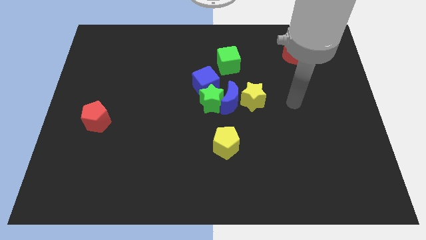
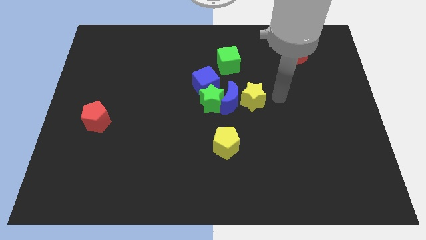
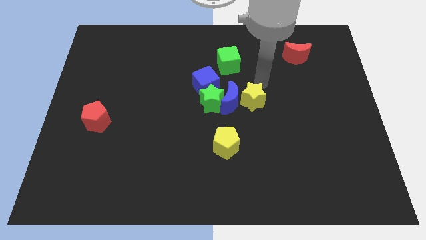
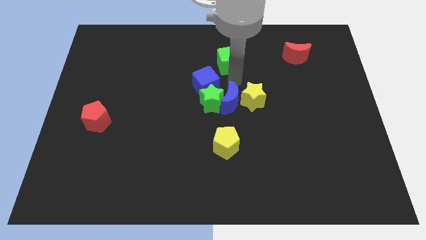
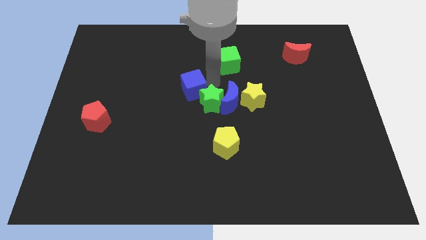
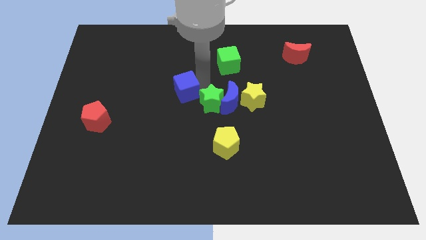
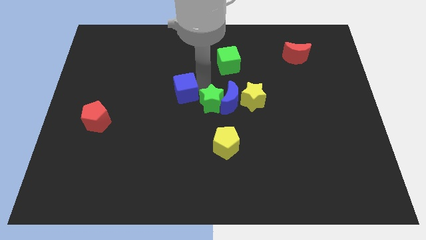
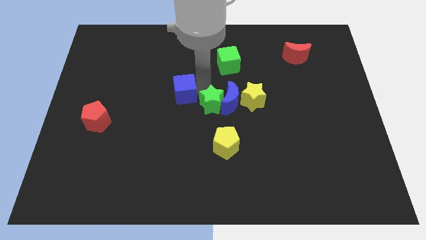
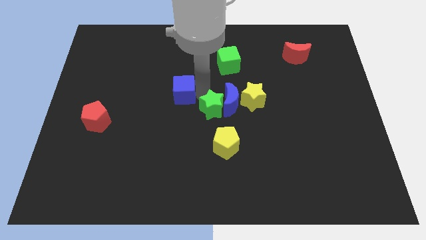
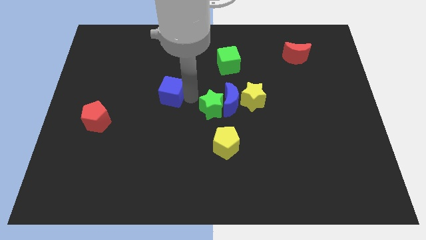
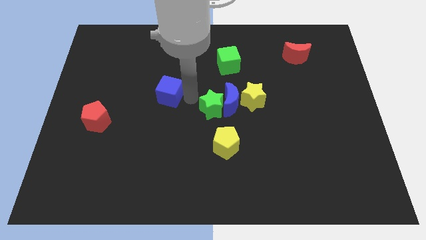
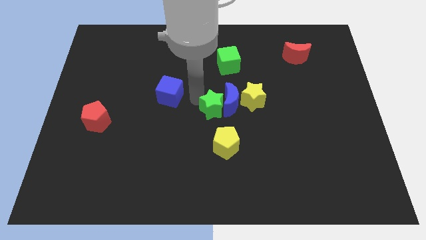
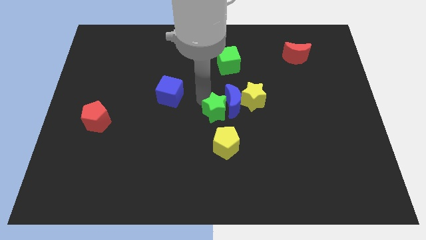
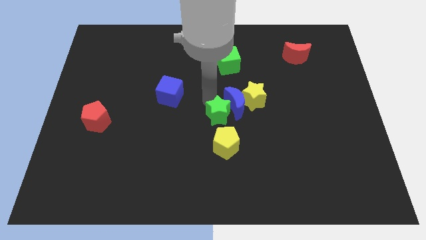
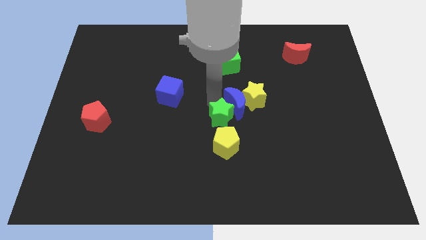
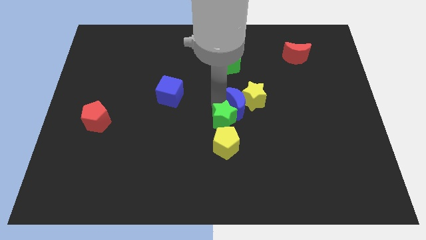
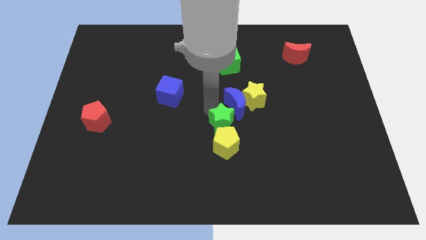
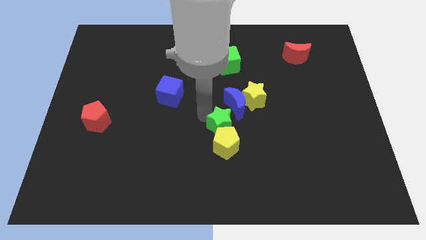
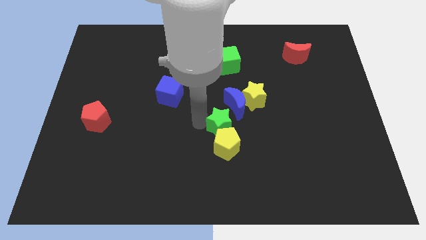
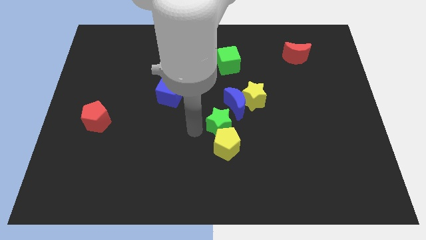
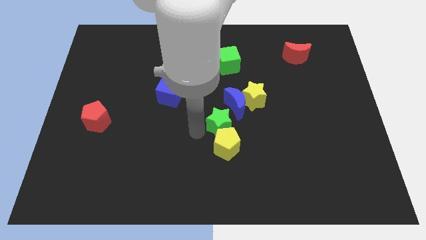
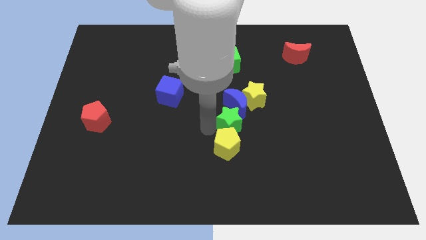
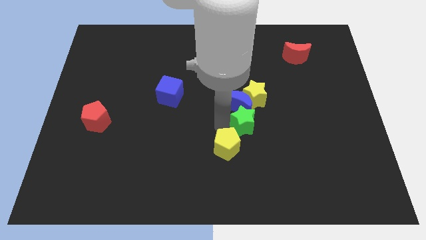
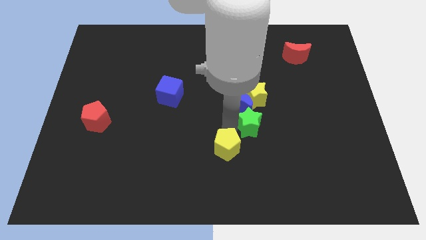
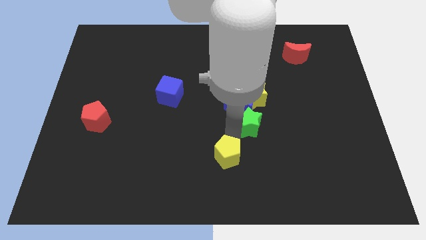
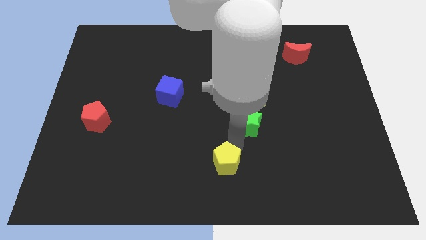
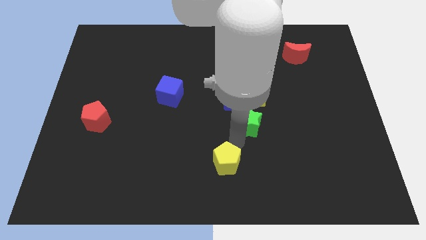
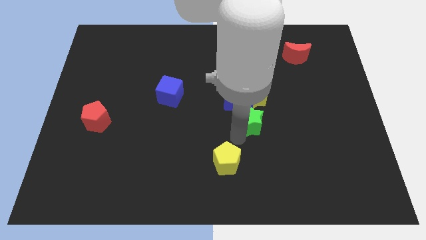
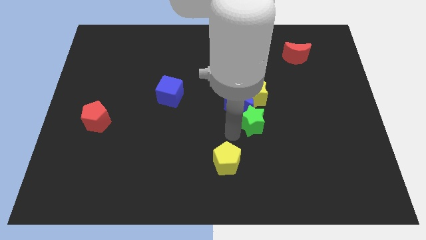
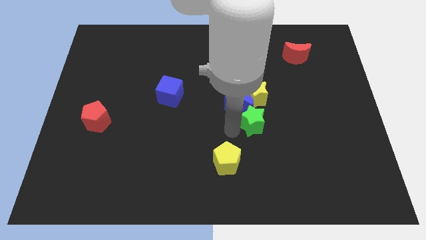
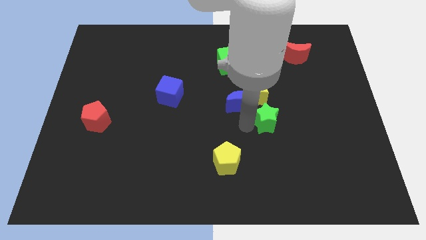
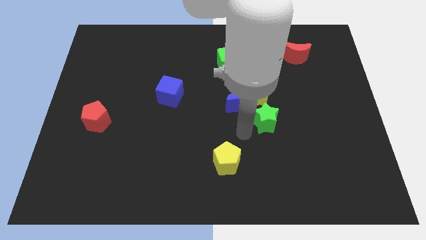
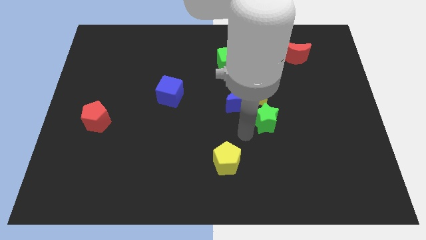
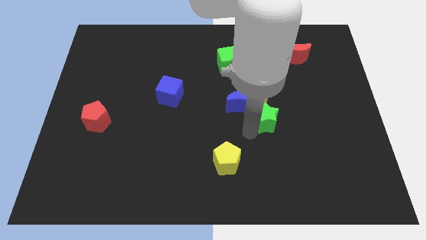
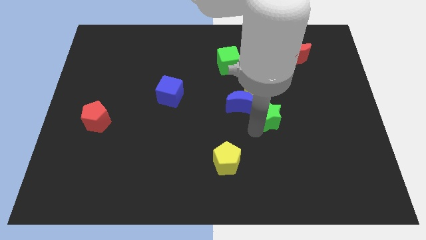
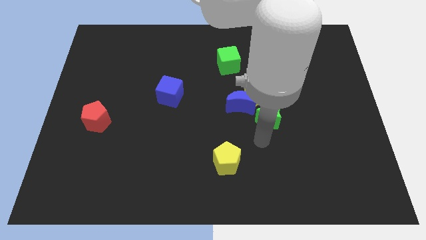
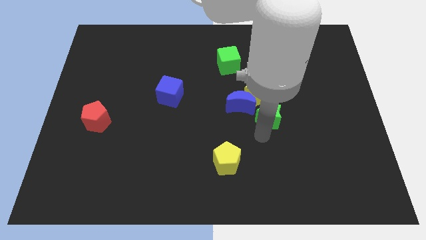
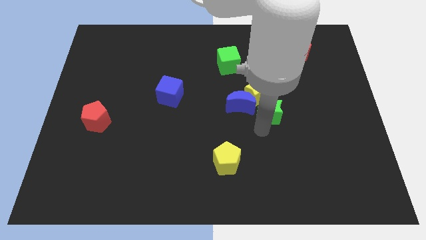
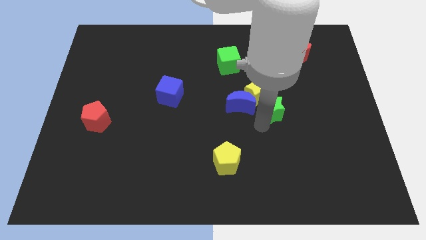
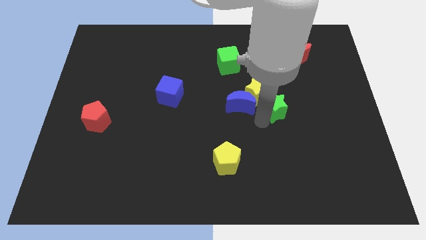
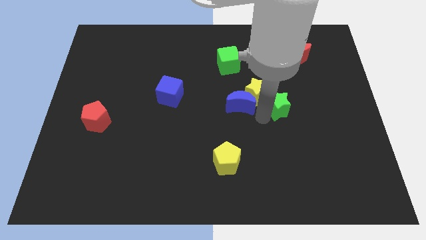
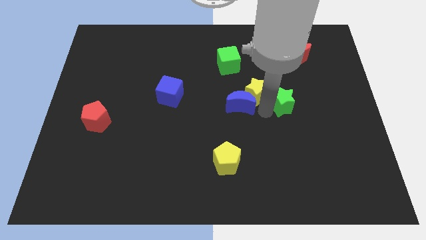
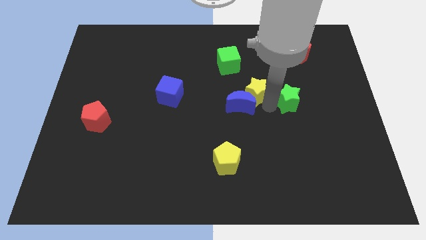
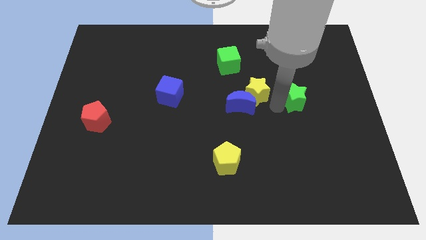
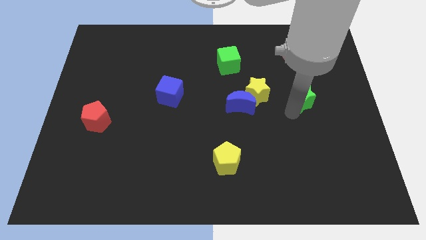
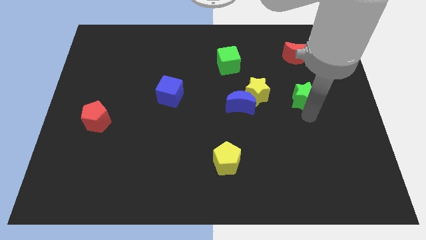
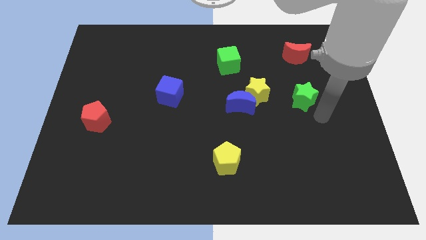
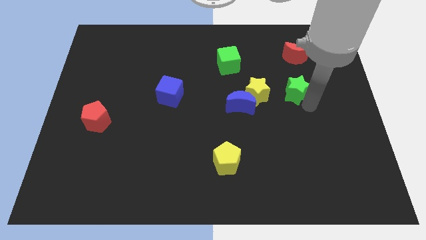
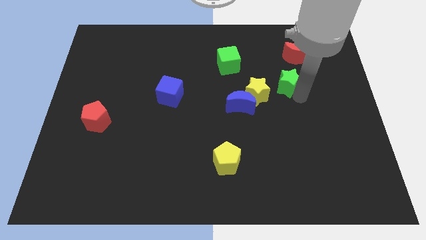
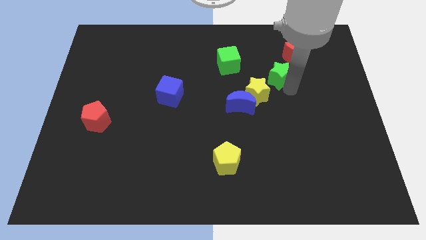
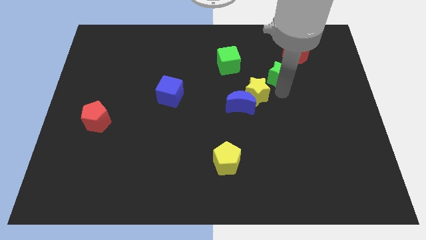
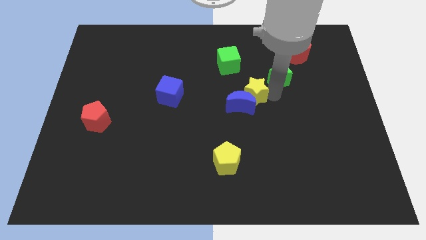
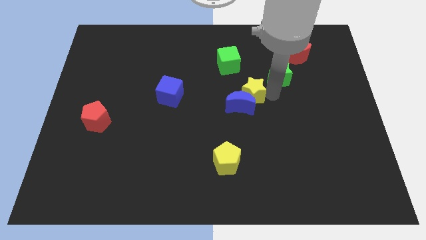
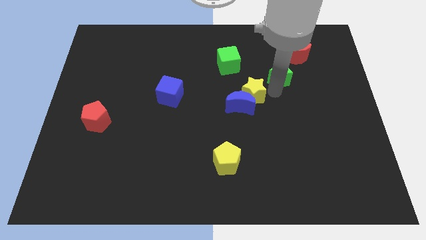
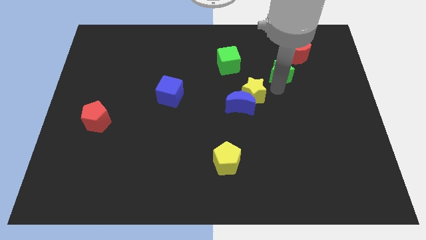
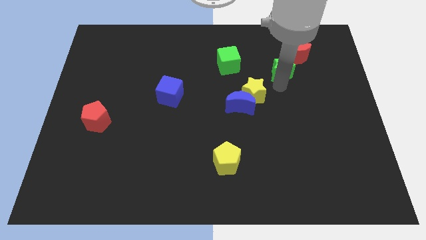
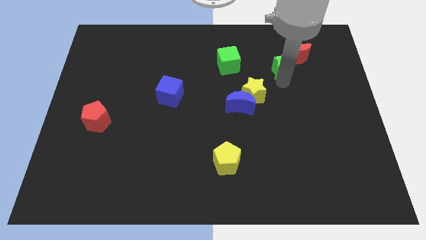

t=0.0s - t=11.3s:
push the green star next to the red moon
